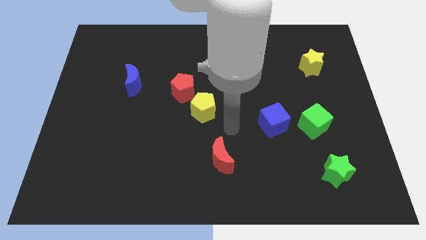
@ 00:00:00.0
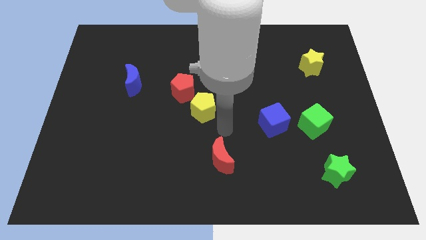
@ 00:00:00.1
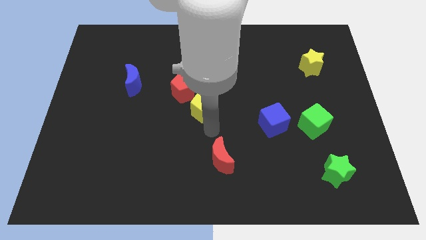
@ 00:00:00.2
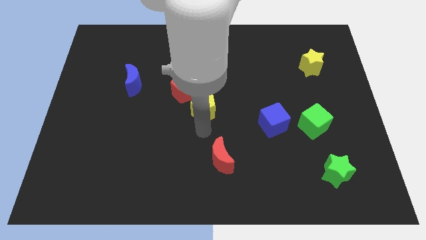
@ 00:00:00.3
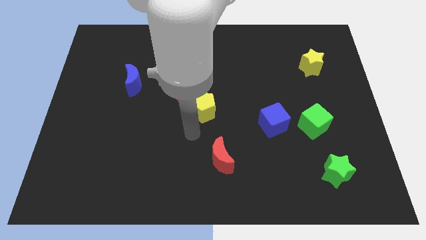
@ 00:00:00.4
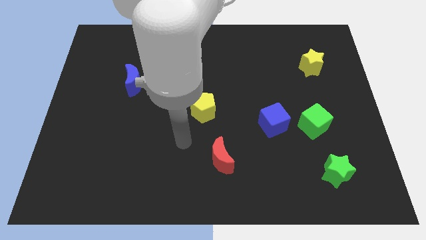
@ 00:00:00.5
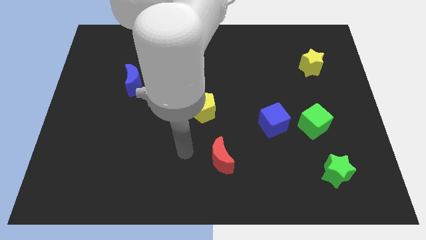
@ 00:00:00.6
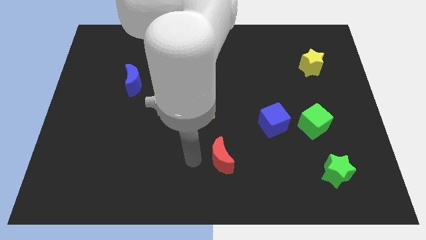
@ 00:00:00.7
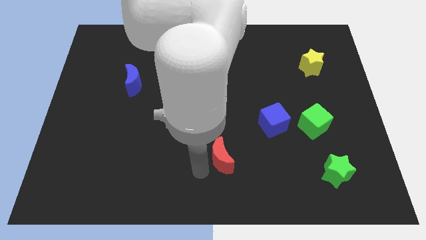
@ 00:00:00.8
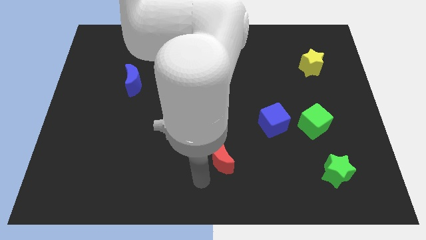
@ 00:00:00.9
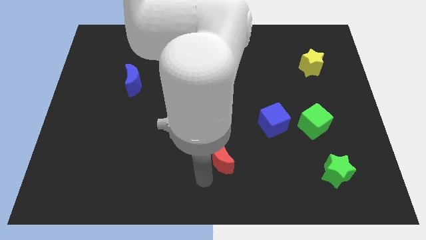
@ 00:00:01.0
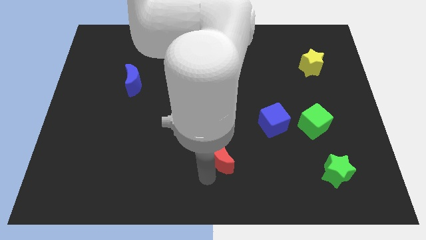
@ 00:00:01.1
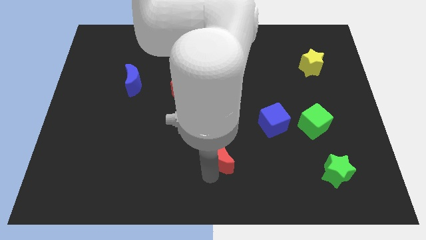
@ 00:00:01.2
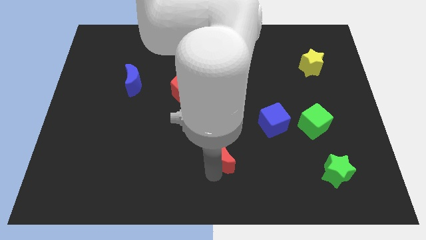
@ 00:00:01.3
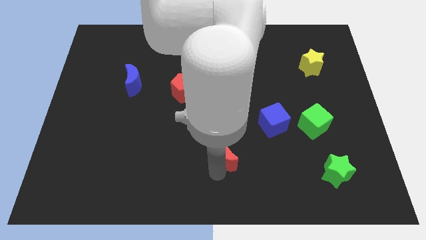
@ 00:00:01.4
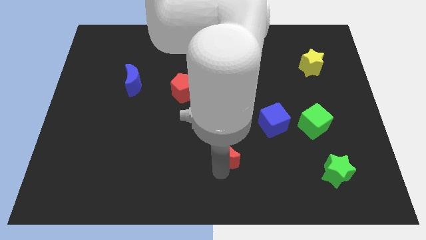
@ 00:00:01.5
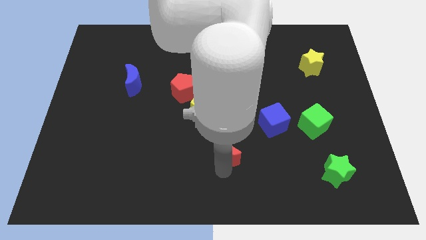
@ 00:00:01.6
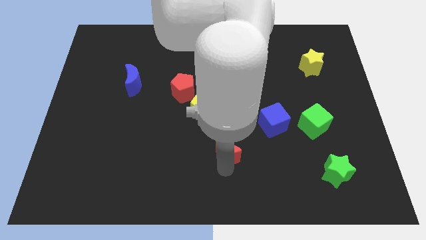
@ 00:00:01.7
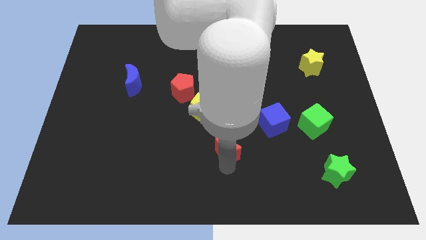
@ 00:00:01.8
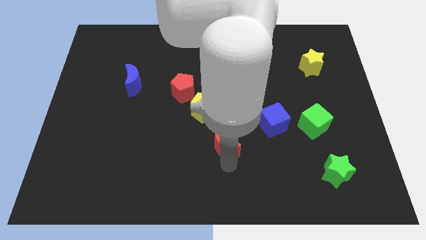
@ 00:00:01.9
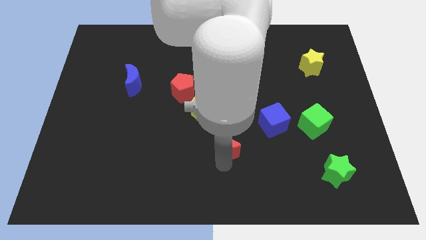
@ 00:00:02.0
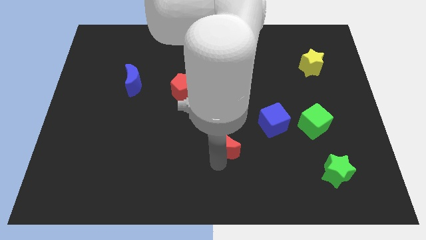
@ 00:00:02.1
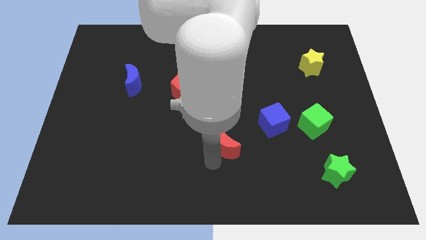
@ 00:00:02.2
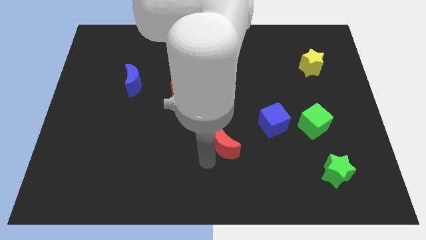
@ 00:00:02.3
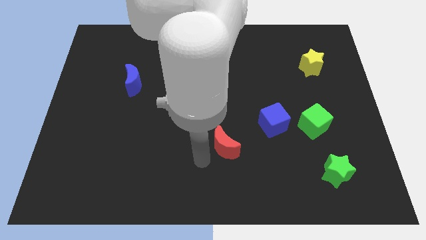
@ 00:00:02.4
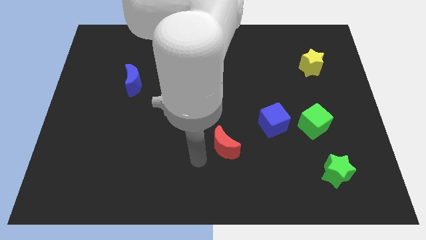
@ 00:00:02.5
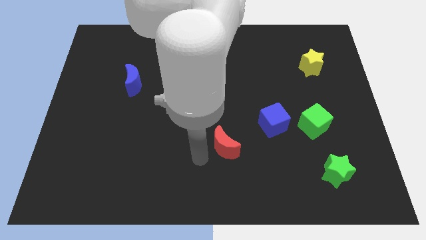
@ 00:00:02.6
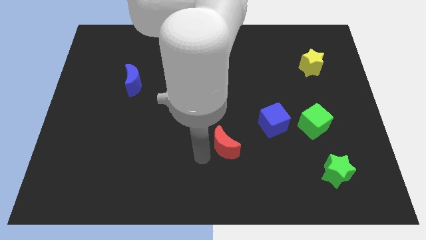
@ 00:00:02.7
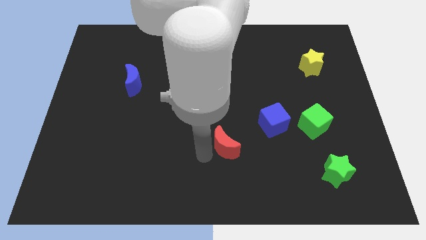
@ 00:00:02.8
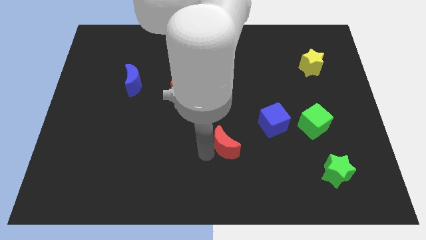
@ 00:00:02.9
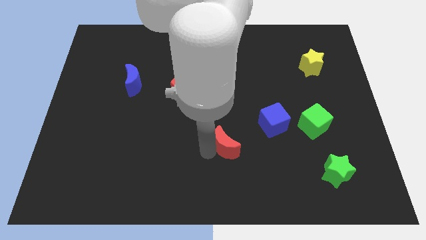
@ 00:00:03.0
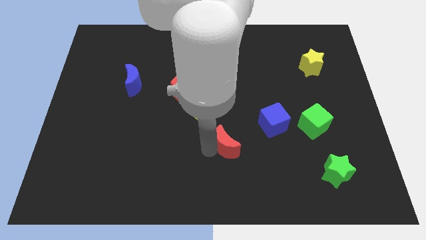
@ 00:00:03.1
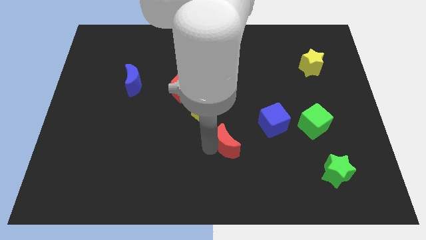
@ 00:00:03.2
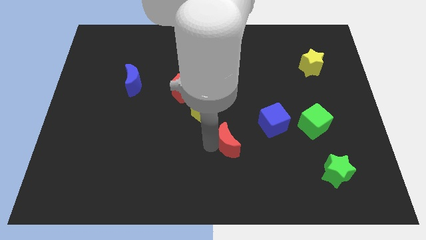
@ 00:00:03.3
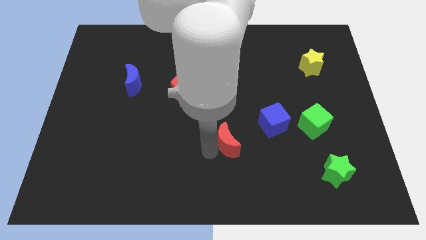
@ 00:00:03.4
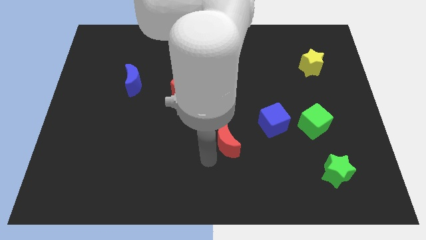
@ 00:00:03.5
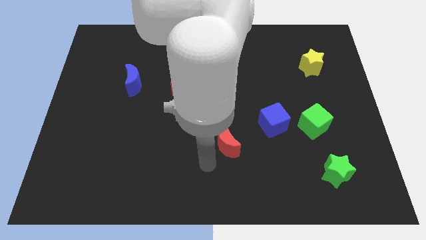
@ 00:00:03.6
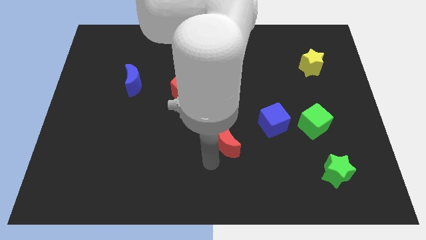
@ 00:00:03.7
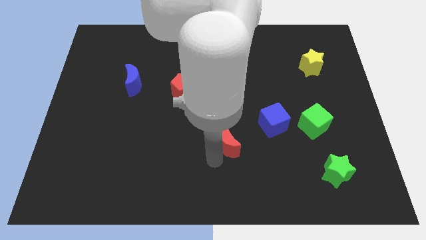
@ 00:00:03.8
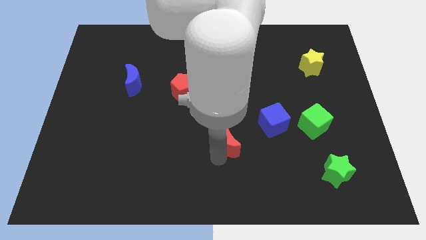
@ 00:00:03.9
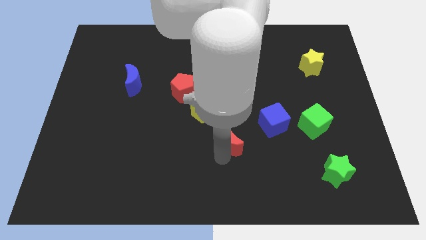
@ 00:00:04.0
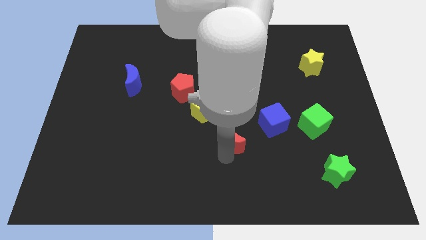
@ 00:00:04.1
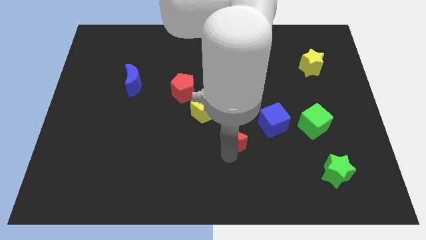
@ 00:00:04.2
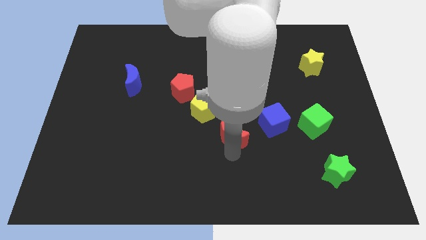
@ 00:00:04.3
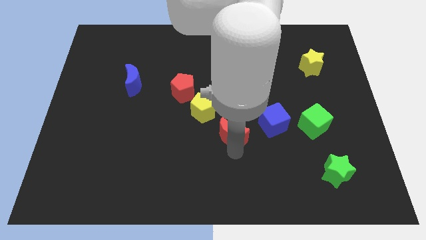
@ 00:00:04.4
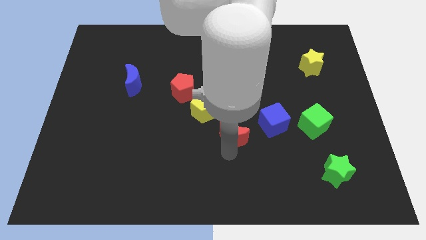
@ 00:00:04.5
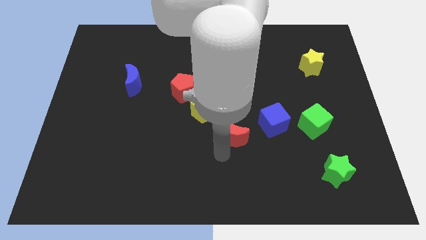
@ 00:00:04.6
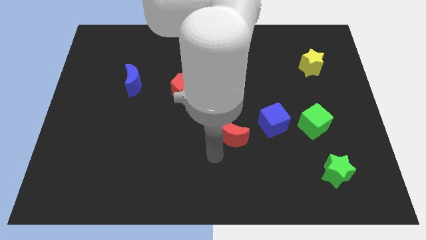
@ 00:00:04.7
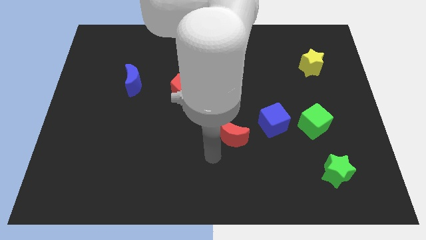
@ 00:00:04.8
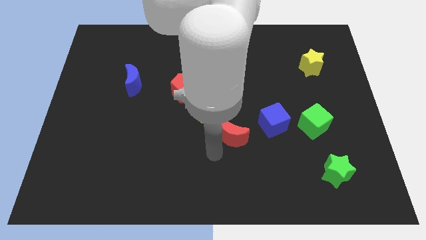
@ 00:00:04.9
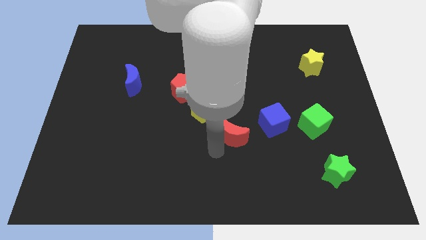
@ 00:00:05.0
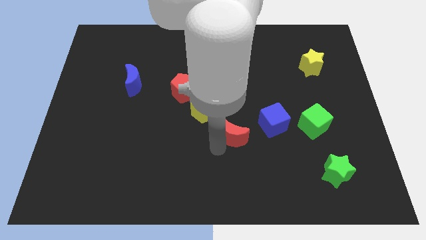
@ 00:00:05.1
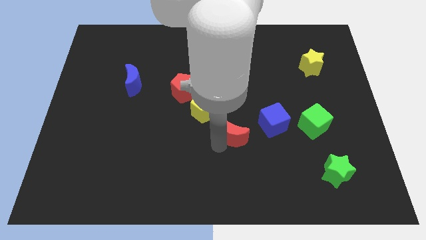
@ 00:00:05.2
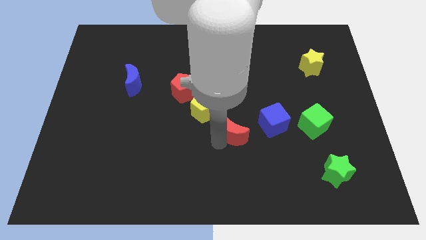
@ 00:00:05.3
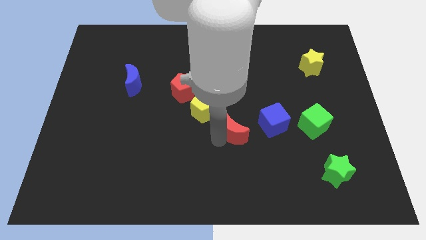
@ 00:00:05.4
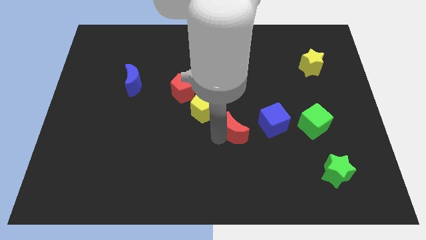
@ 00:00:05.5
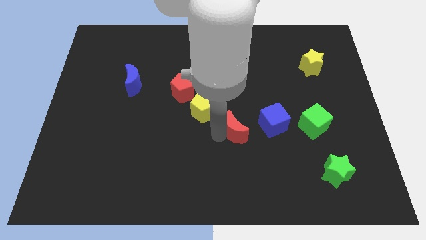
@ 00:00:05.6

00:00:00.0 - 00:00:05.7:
push the red moon diagonally up and right a bit

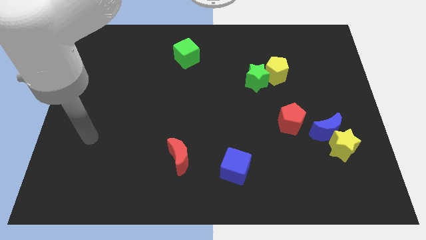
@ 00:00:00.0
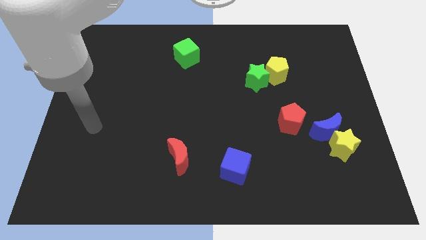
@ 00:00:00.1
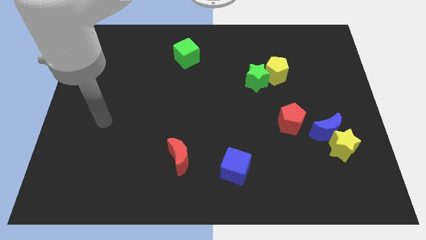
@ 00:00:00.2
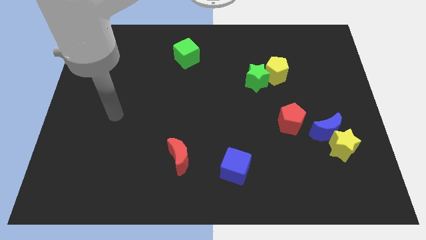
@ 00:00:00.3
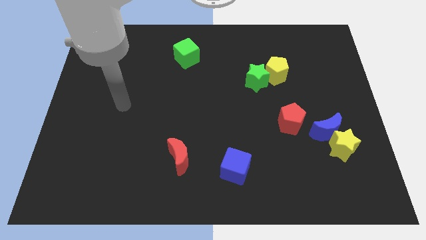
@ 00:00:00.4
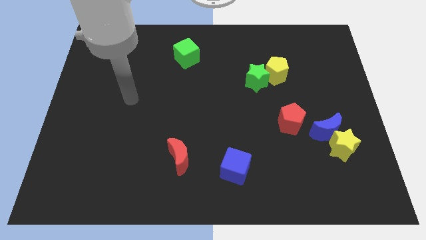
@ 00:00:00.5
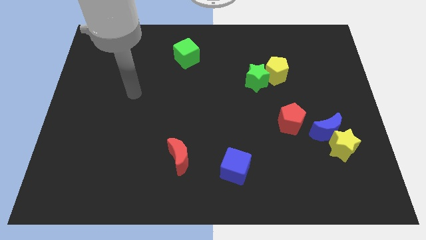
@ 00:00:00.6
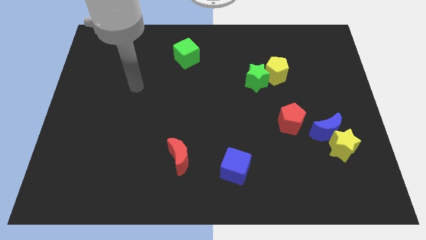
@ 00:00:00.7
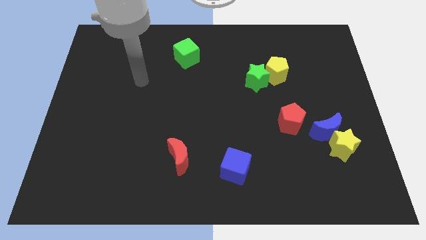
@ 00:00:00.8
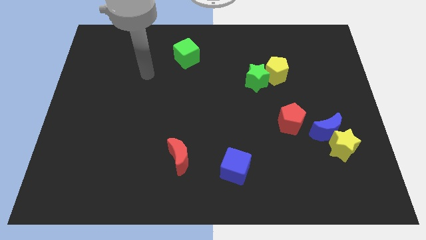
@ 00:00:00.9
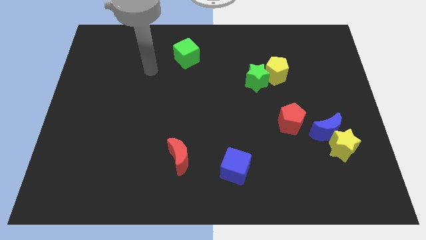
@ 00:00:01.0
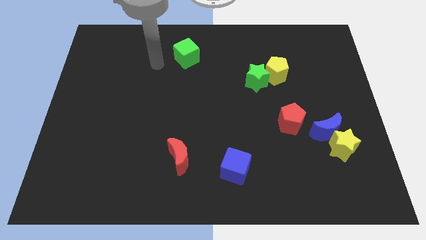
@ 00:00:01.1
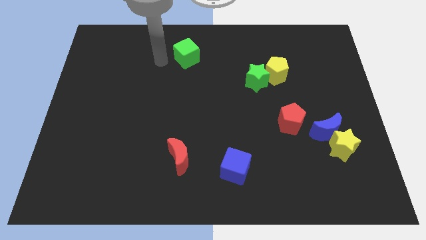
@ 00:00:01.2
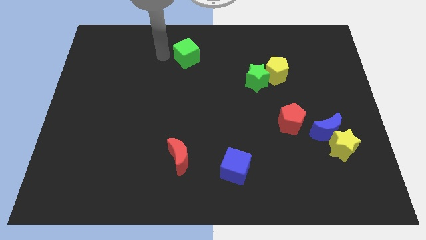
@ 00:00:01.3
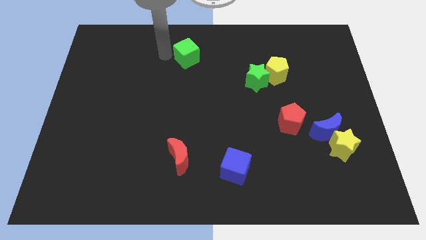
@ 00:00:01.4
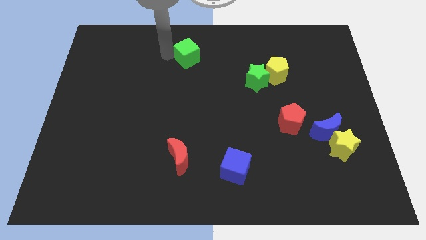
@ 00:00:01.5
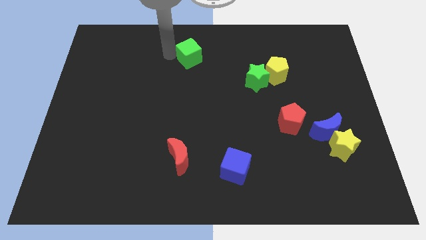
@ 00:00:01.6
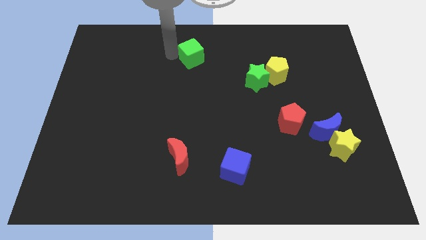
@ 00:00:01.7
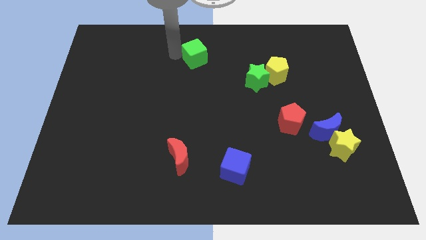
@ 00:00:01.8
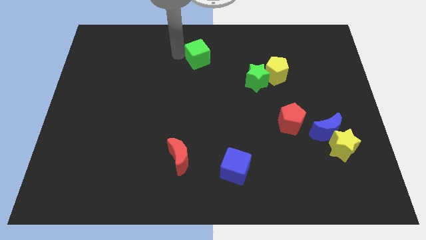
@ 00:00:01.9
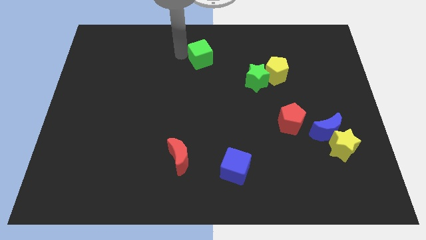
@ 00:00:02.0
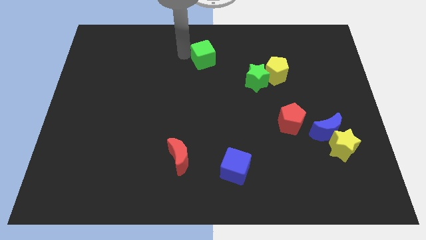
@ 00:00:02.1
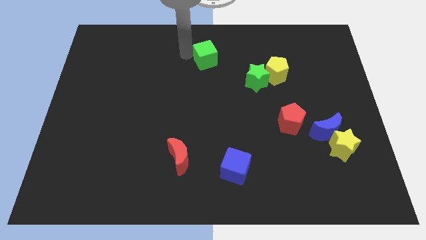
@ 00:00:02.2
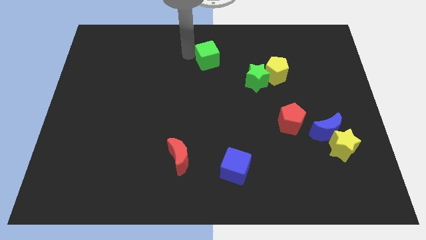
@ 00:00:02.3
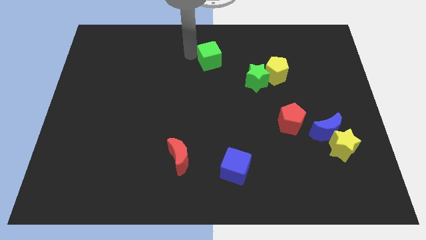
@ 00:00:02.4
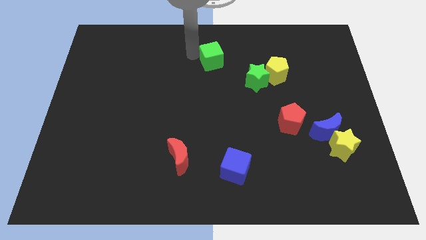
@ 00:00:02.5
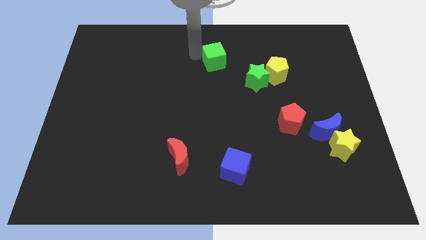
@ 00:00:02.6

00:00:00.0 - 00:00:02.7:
push the green cube slightly to the right
